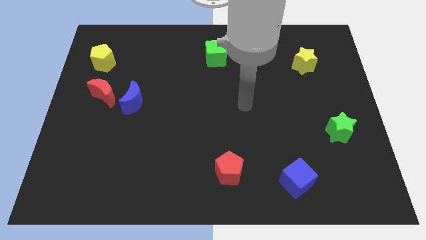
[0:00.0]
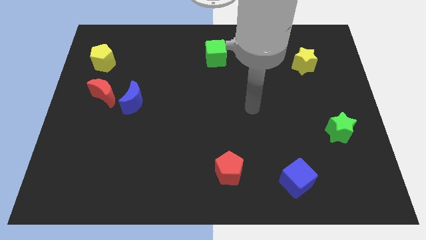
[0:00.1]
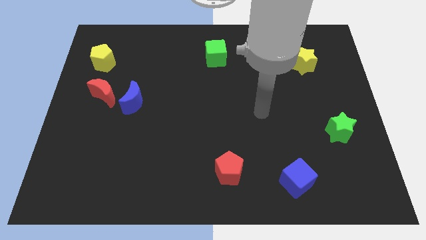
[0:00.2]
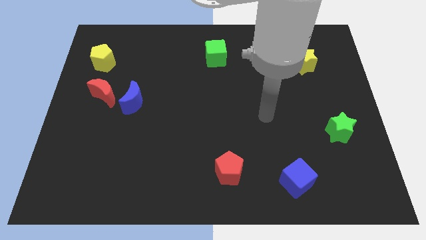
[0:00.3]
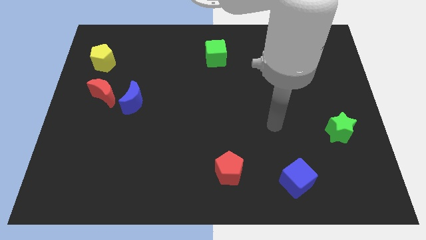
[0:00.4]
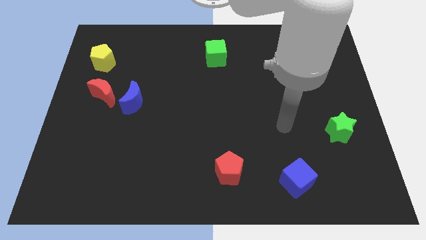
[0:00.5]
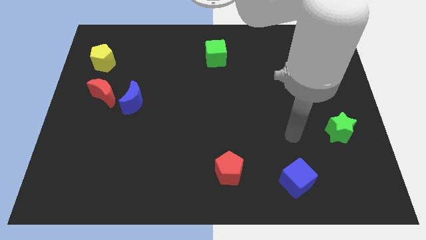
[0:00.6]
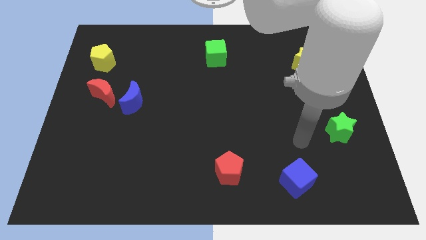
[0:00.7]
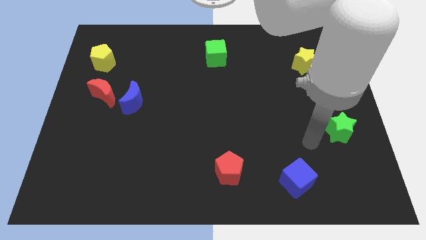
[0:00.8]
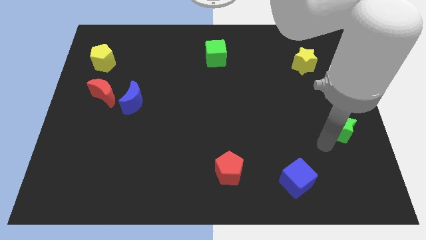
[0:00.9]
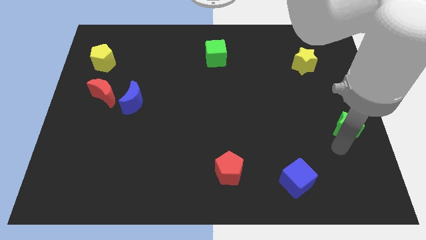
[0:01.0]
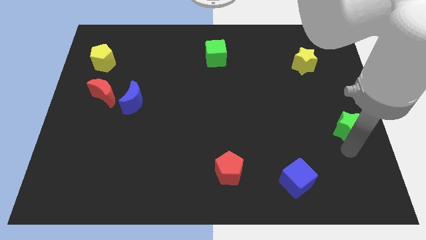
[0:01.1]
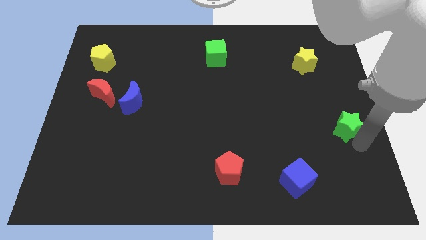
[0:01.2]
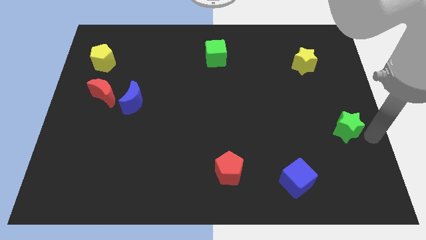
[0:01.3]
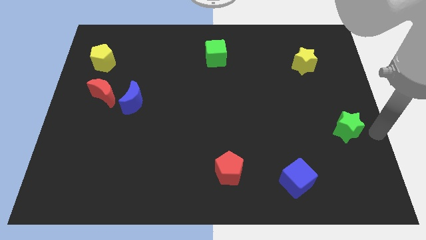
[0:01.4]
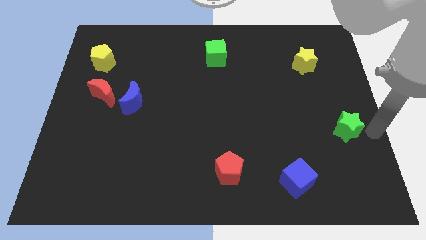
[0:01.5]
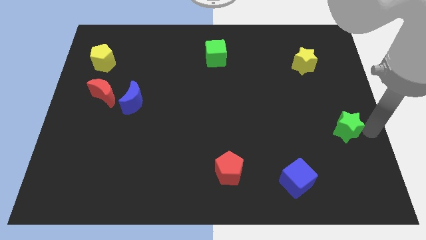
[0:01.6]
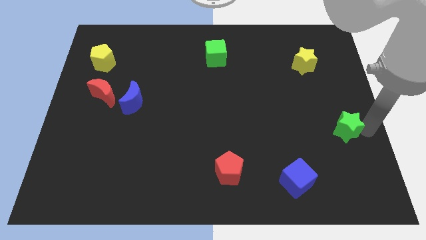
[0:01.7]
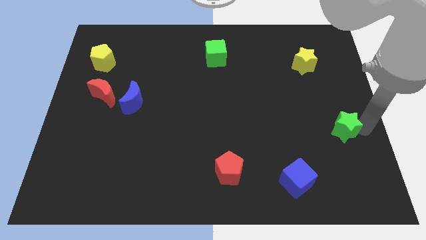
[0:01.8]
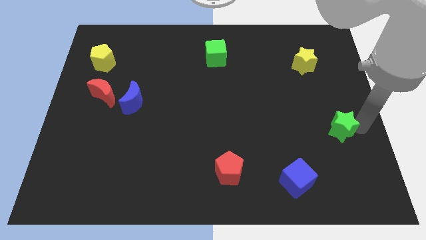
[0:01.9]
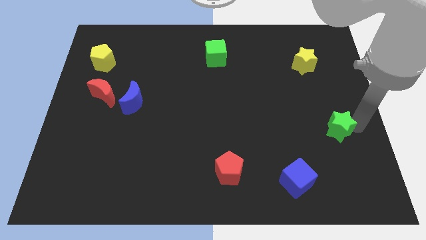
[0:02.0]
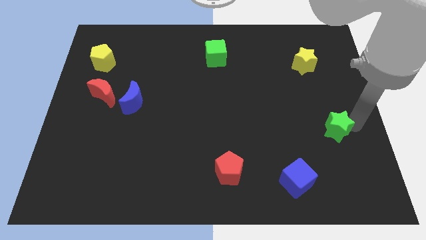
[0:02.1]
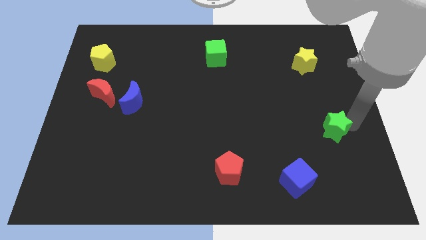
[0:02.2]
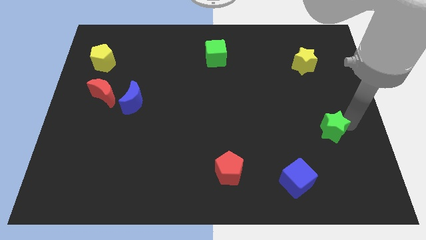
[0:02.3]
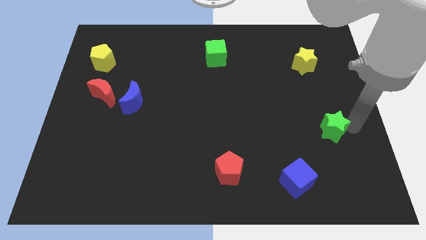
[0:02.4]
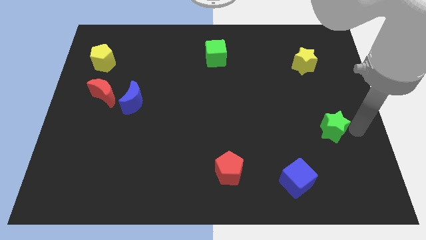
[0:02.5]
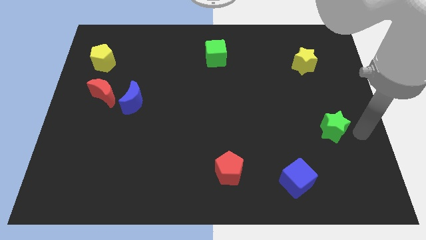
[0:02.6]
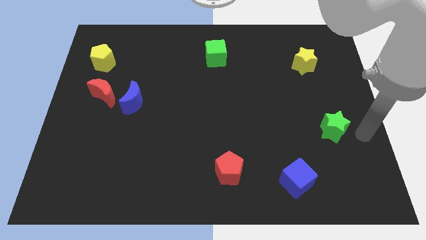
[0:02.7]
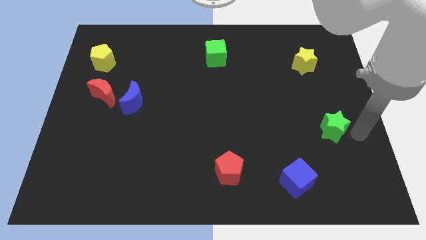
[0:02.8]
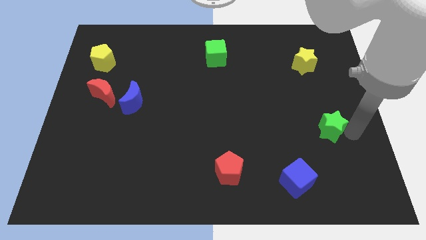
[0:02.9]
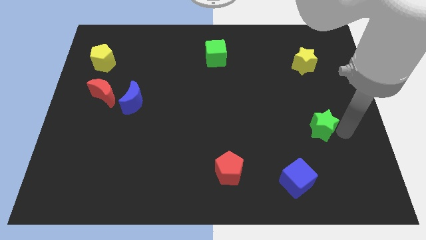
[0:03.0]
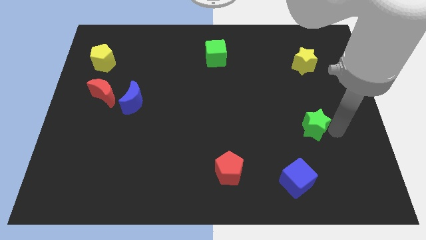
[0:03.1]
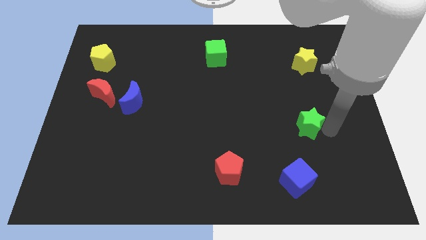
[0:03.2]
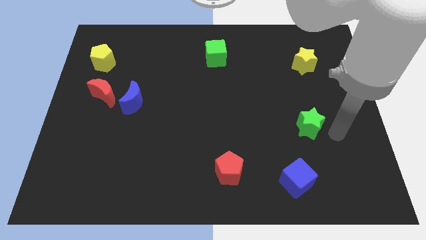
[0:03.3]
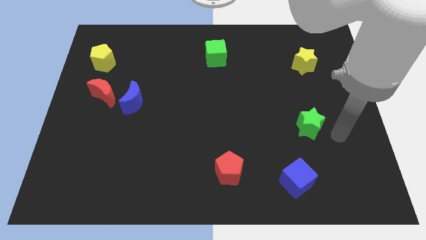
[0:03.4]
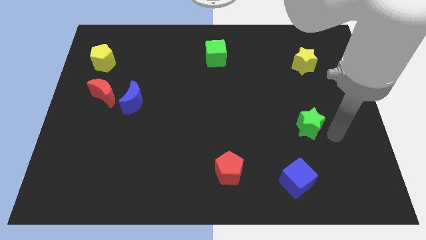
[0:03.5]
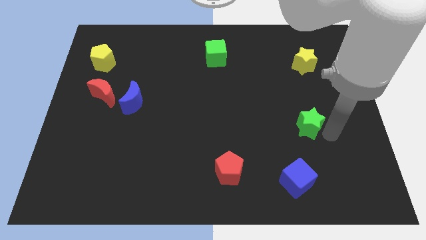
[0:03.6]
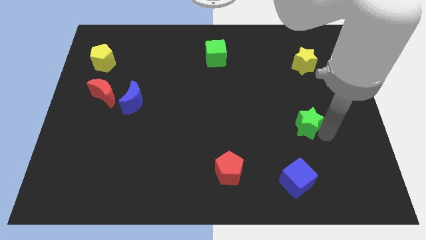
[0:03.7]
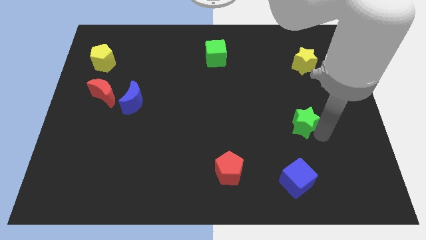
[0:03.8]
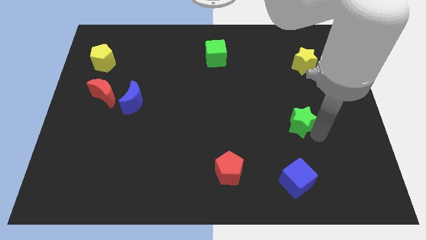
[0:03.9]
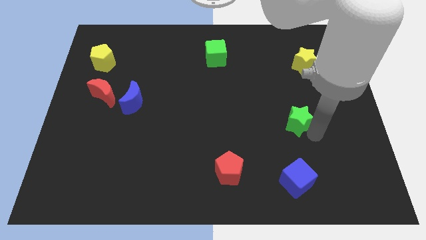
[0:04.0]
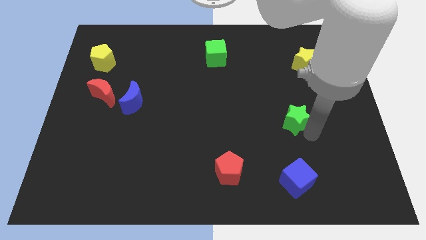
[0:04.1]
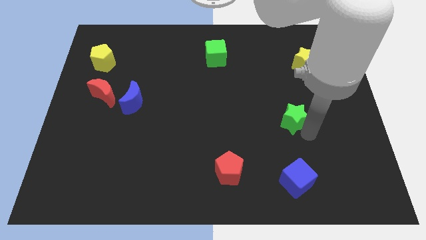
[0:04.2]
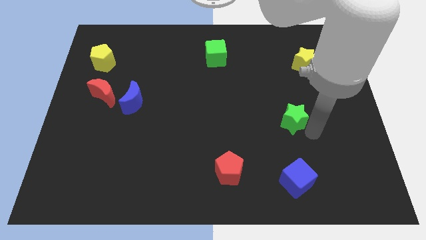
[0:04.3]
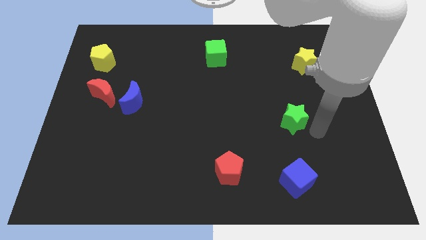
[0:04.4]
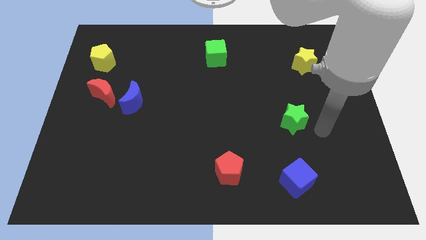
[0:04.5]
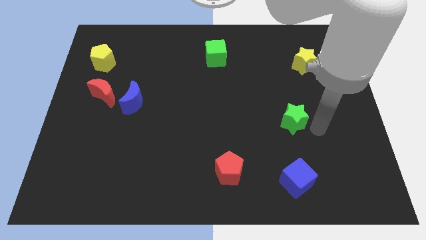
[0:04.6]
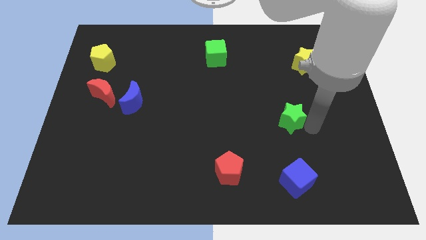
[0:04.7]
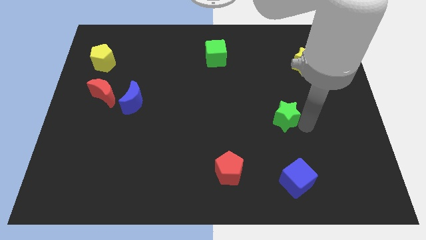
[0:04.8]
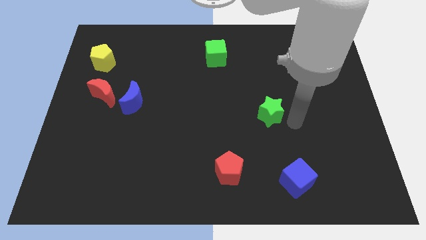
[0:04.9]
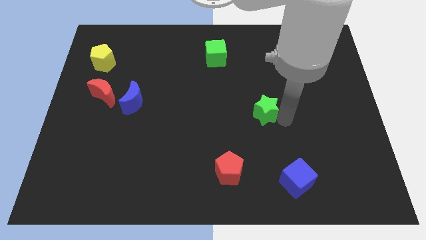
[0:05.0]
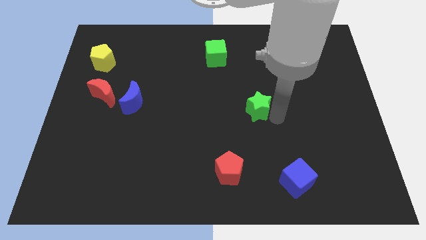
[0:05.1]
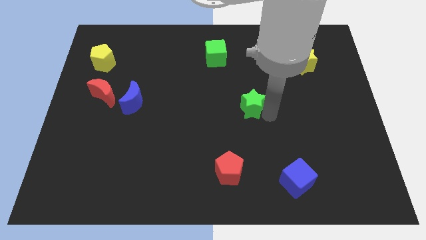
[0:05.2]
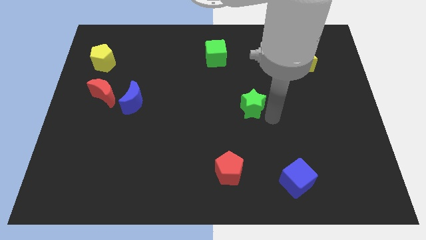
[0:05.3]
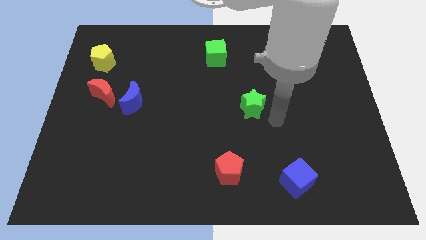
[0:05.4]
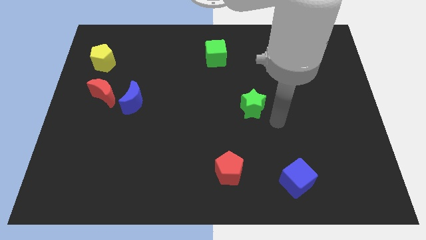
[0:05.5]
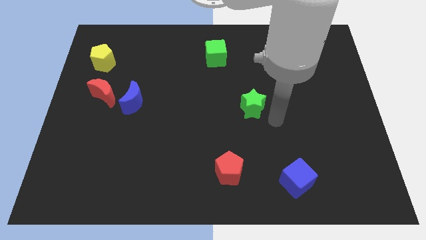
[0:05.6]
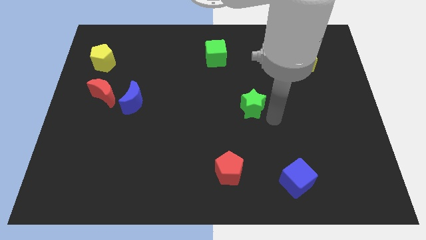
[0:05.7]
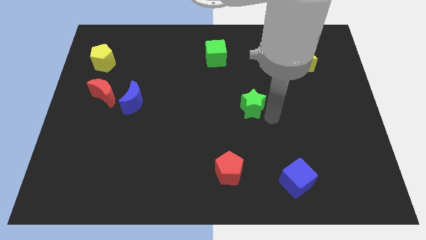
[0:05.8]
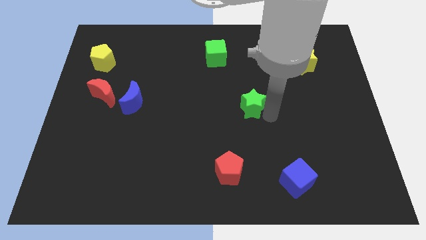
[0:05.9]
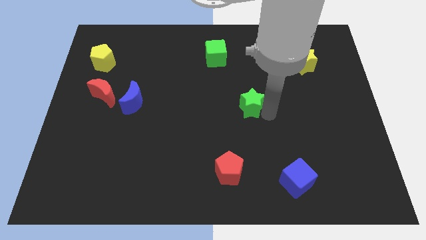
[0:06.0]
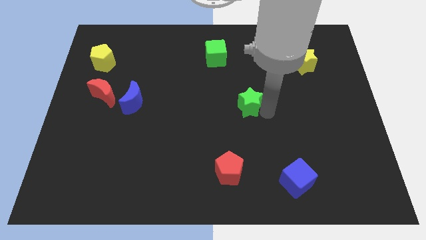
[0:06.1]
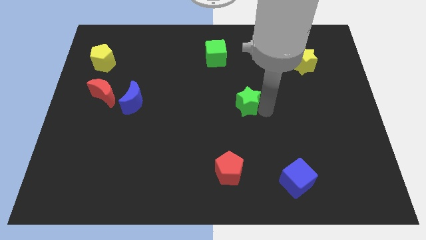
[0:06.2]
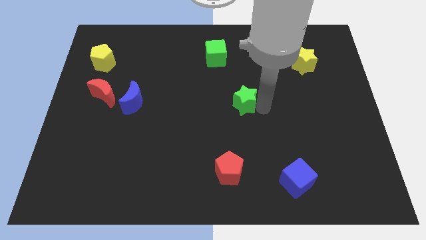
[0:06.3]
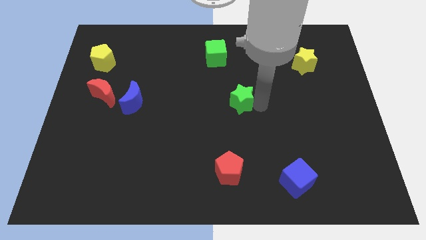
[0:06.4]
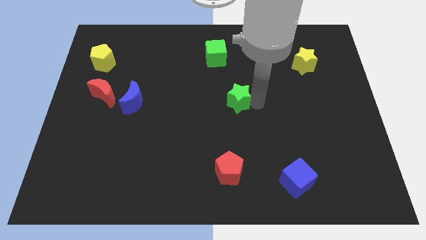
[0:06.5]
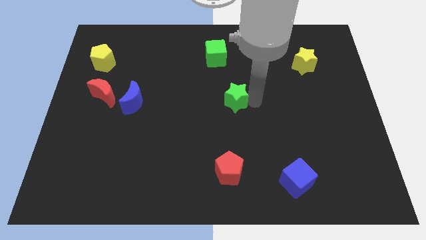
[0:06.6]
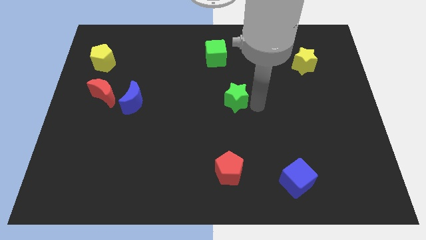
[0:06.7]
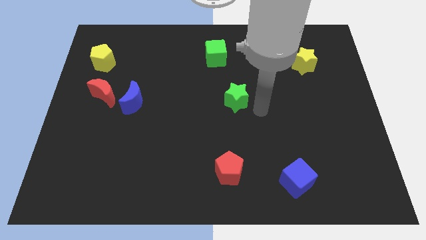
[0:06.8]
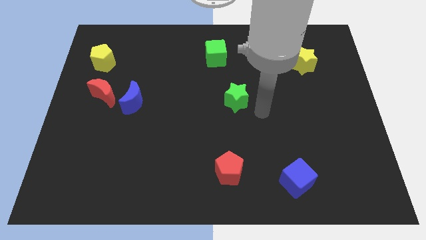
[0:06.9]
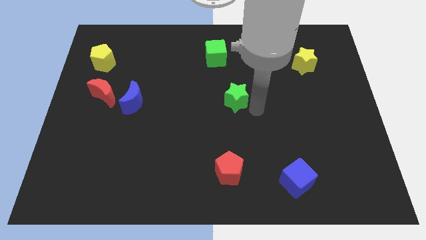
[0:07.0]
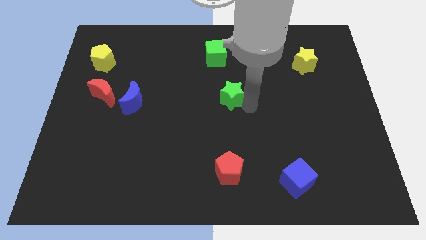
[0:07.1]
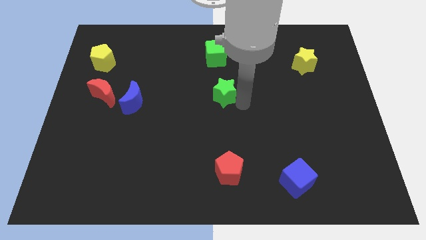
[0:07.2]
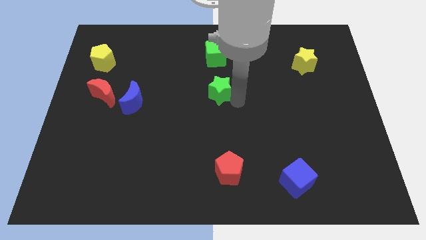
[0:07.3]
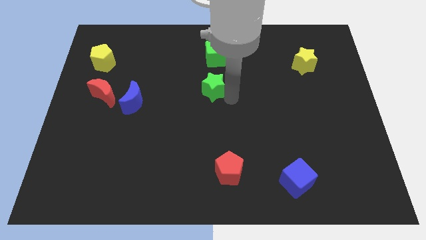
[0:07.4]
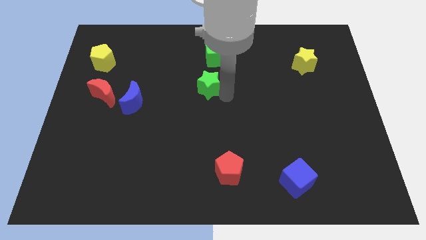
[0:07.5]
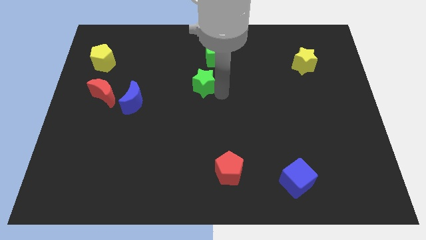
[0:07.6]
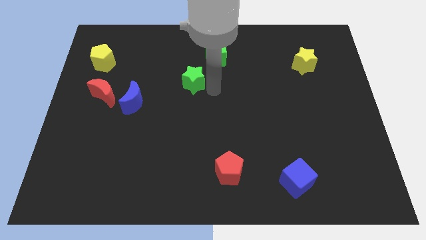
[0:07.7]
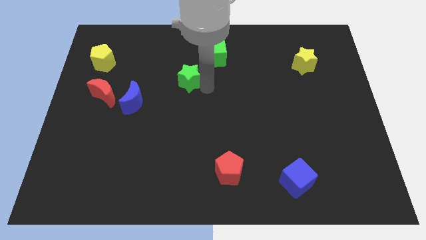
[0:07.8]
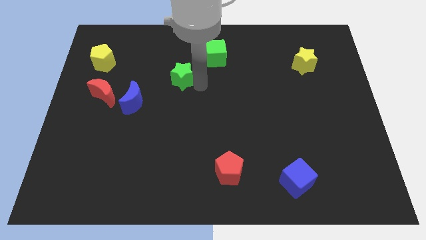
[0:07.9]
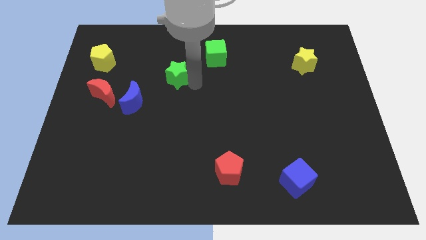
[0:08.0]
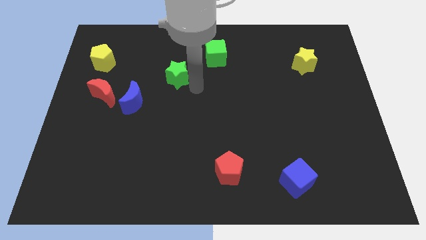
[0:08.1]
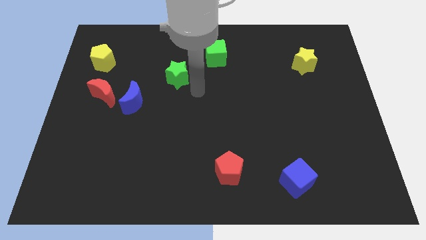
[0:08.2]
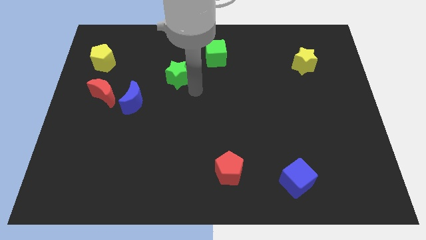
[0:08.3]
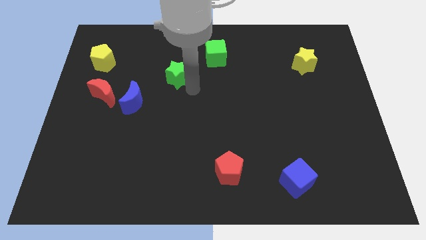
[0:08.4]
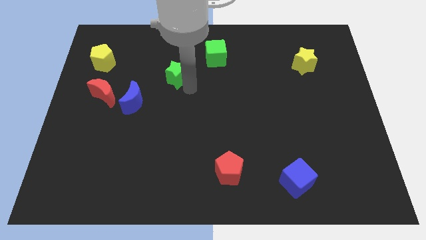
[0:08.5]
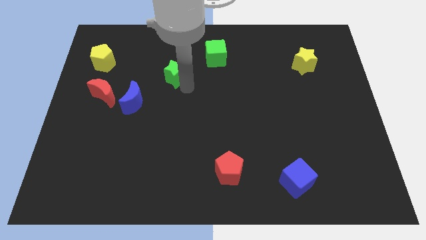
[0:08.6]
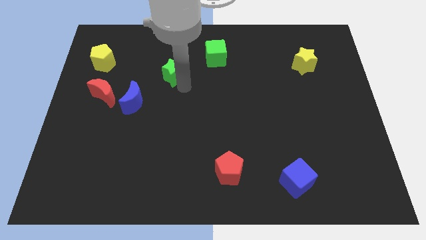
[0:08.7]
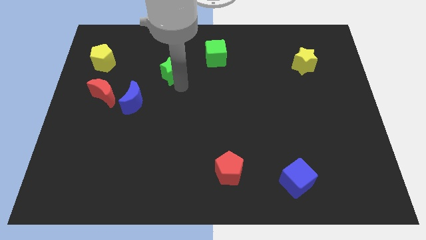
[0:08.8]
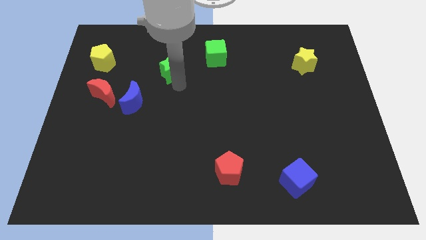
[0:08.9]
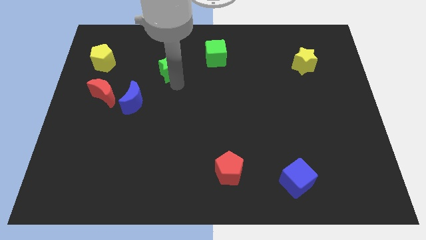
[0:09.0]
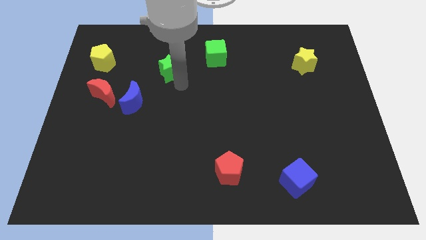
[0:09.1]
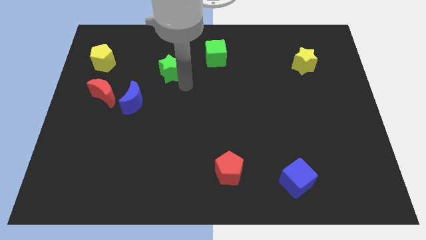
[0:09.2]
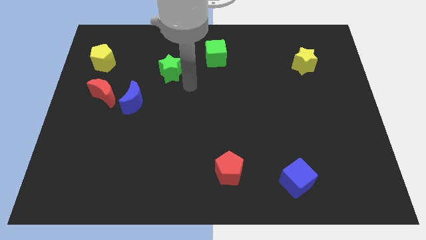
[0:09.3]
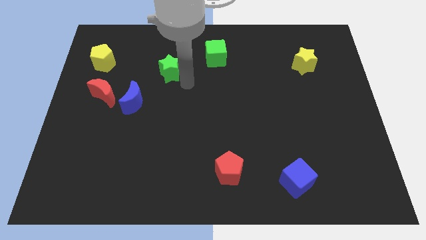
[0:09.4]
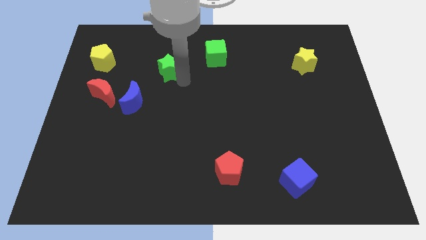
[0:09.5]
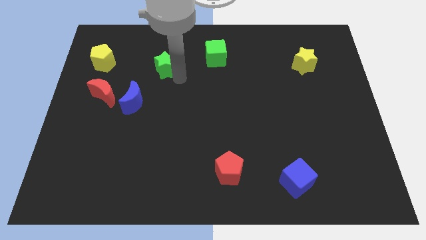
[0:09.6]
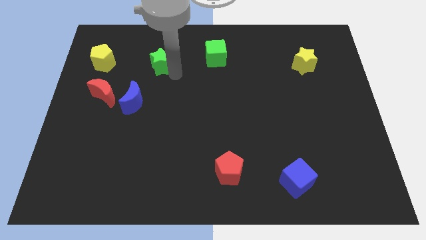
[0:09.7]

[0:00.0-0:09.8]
push the green star to the right side of the yellow pentagon
